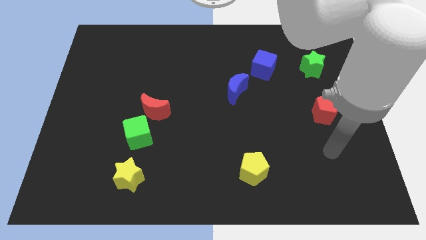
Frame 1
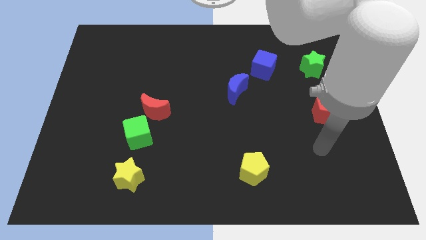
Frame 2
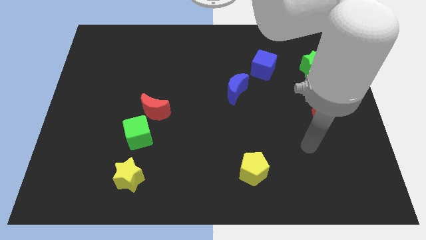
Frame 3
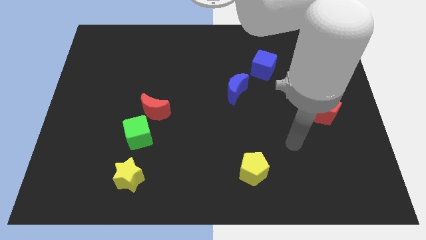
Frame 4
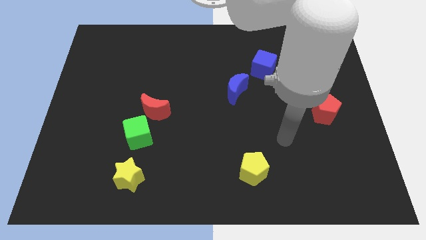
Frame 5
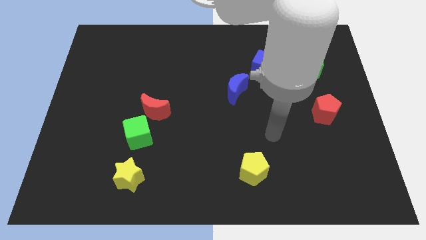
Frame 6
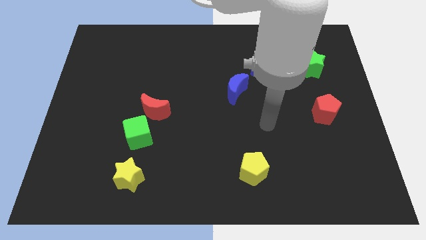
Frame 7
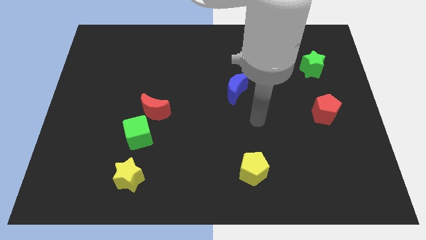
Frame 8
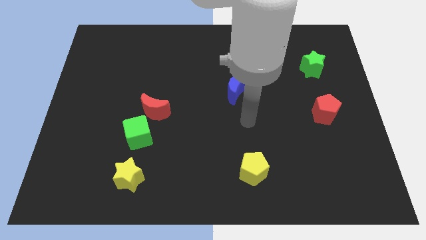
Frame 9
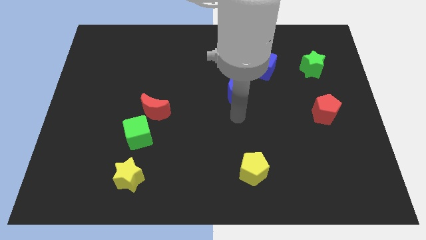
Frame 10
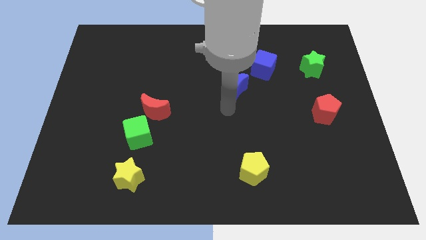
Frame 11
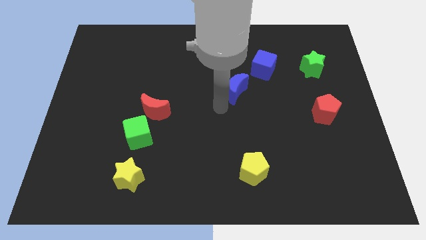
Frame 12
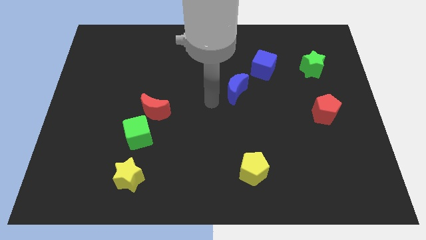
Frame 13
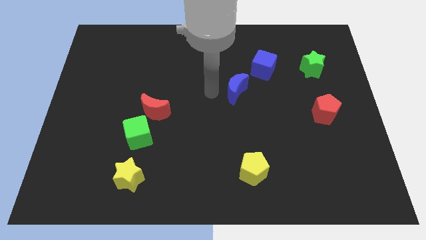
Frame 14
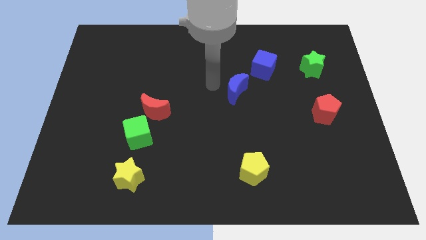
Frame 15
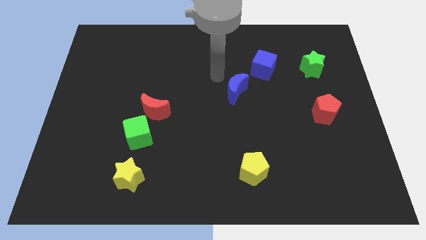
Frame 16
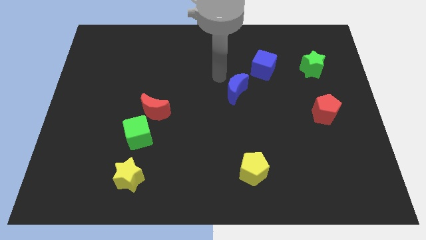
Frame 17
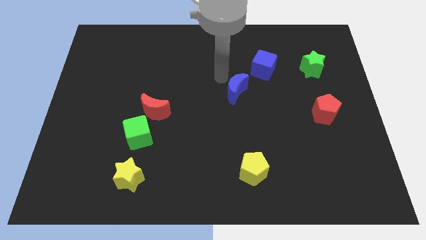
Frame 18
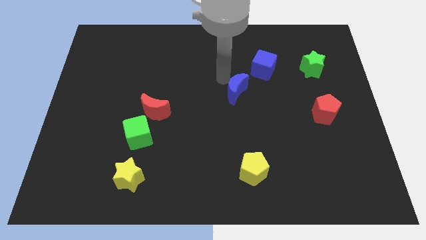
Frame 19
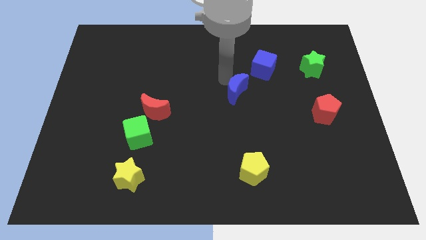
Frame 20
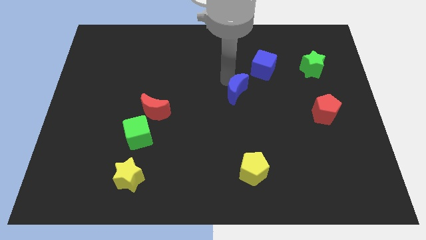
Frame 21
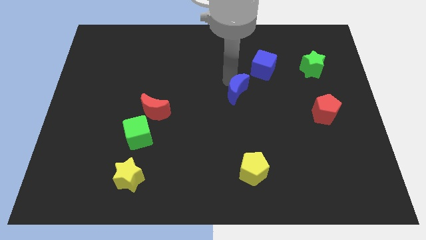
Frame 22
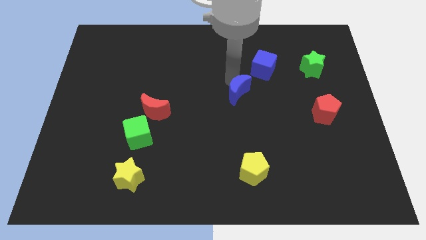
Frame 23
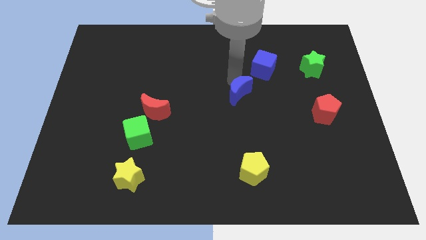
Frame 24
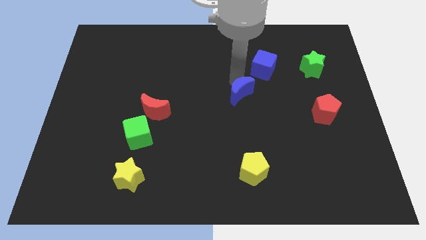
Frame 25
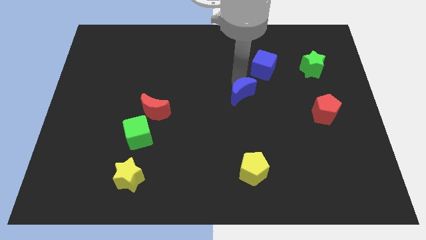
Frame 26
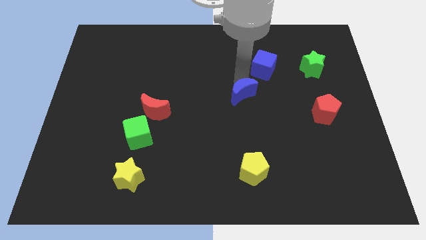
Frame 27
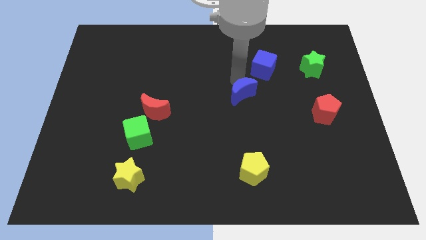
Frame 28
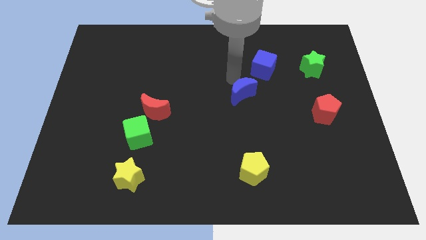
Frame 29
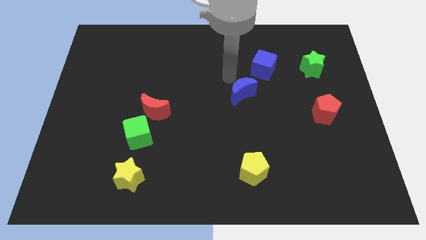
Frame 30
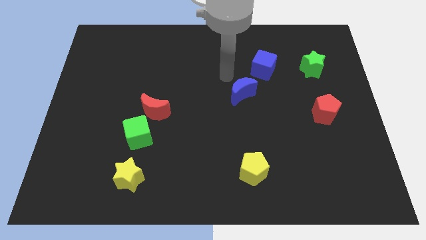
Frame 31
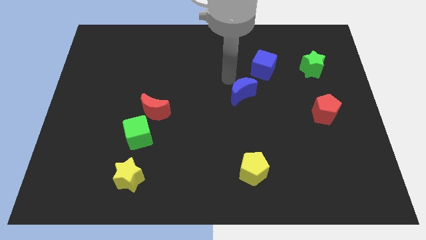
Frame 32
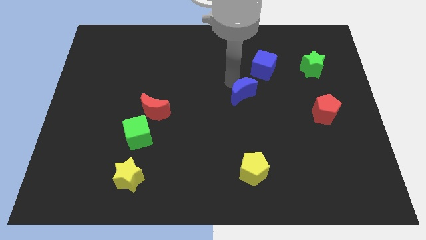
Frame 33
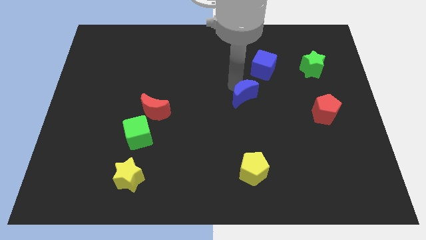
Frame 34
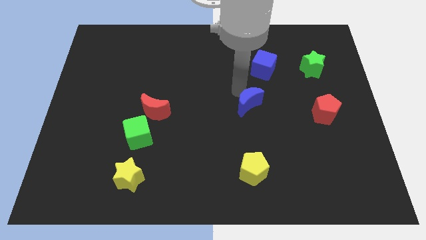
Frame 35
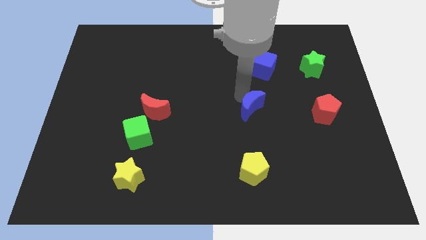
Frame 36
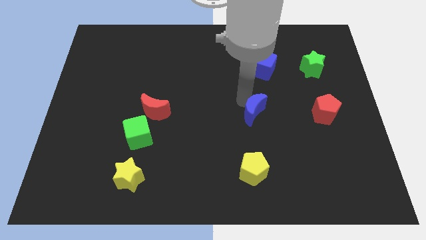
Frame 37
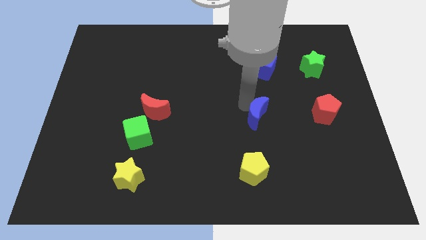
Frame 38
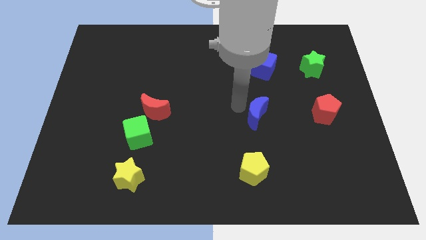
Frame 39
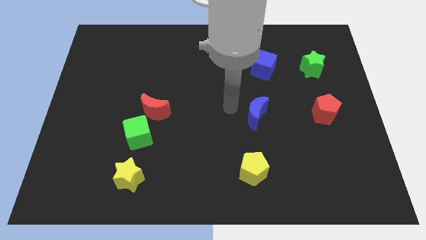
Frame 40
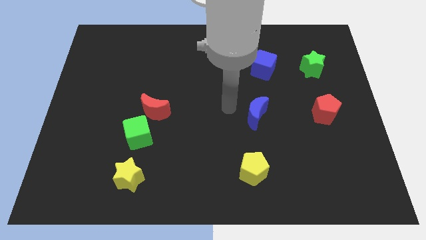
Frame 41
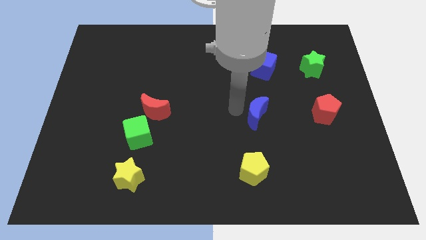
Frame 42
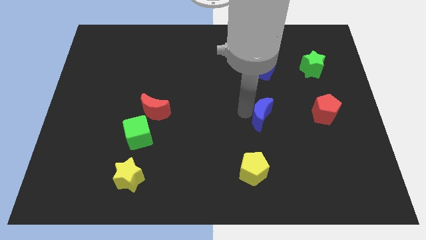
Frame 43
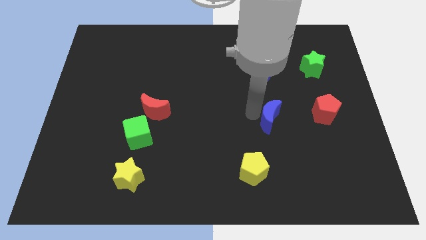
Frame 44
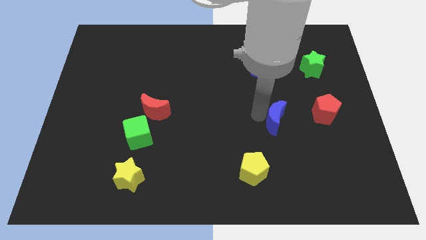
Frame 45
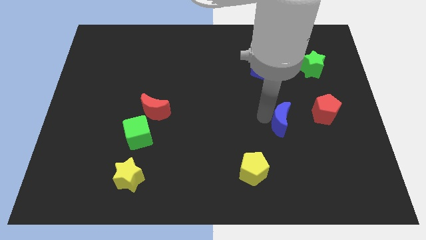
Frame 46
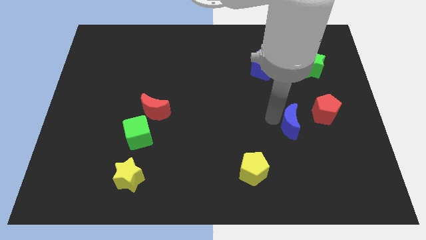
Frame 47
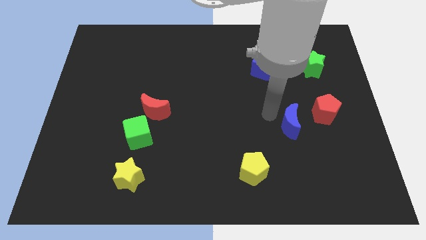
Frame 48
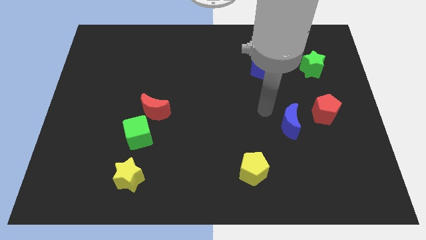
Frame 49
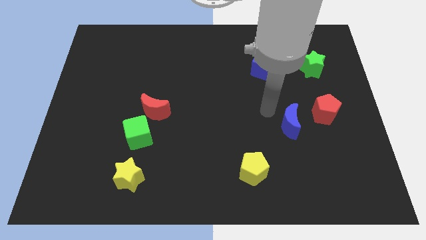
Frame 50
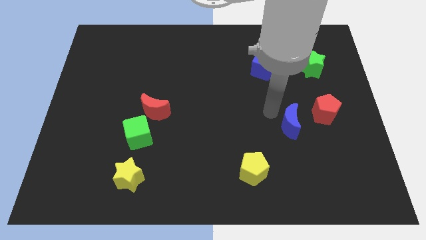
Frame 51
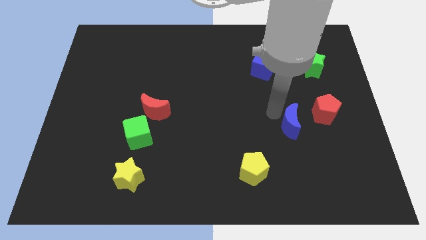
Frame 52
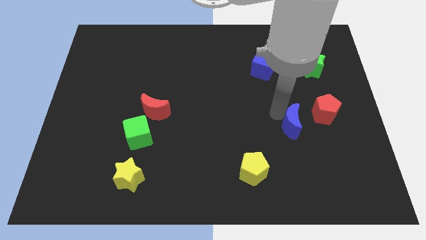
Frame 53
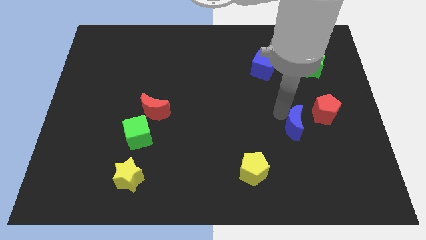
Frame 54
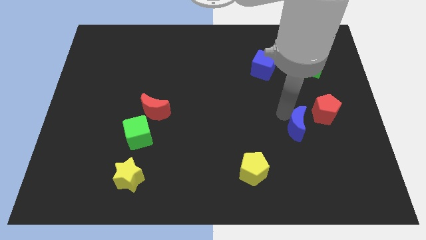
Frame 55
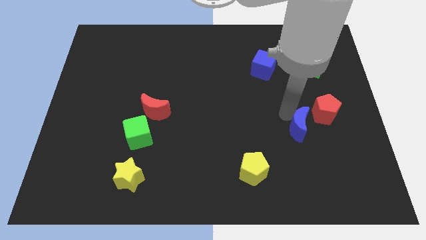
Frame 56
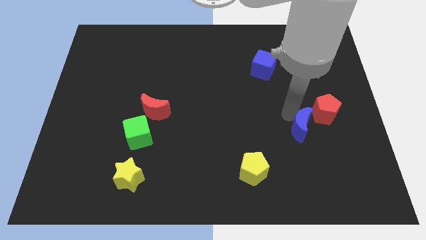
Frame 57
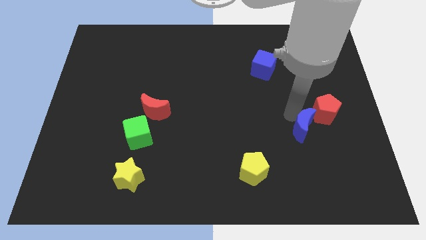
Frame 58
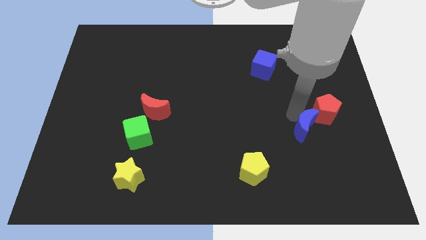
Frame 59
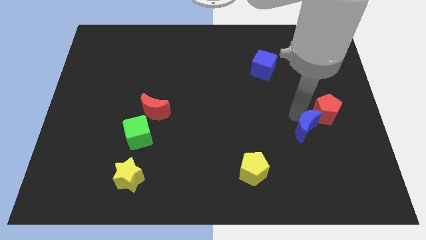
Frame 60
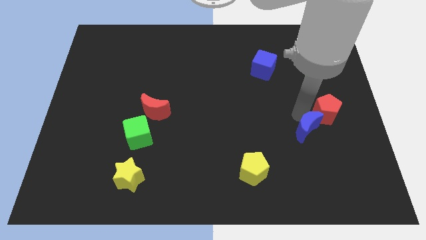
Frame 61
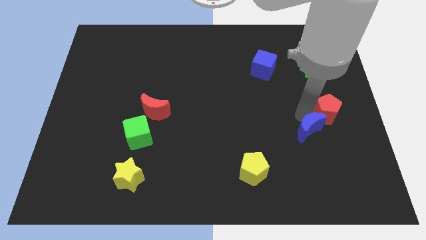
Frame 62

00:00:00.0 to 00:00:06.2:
slide the blue moon to the bottom side of the red pentagon

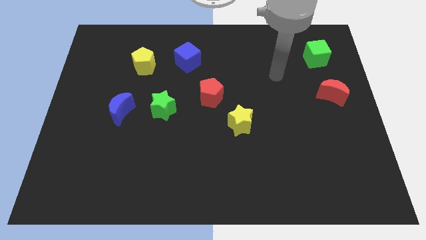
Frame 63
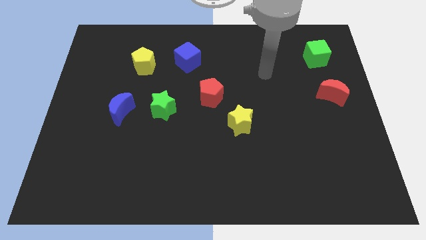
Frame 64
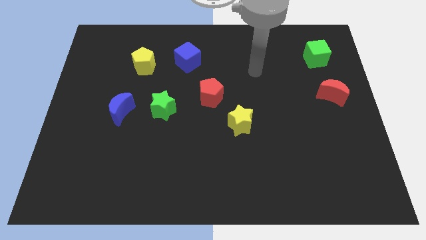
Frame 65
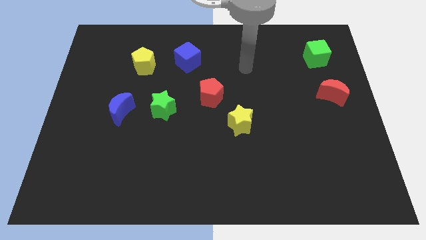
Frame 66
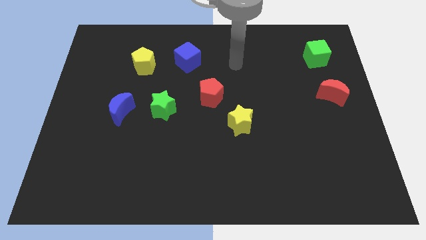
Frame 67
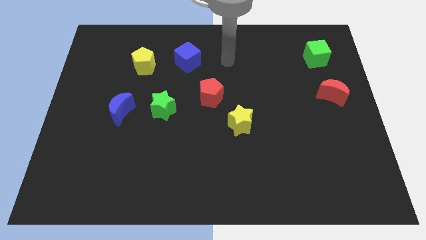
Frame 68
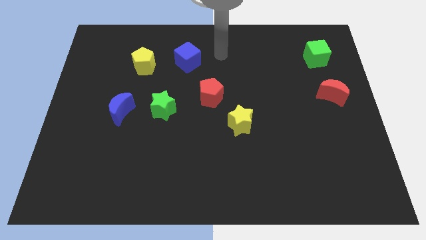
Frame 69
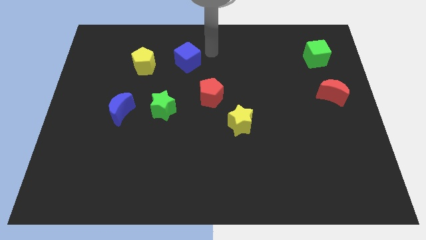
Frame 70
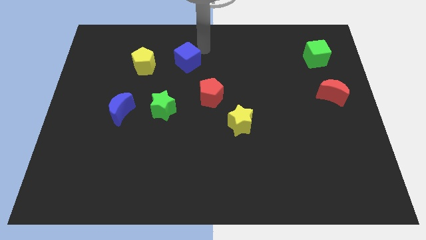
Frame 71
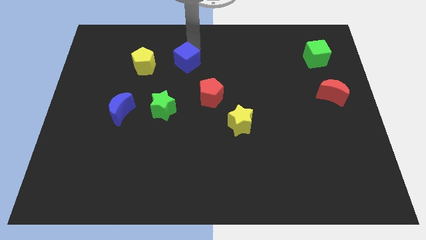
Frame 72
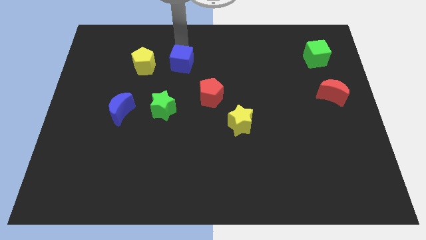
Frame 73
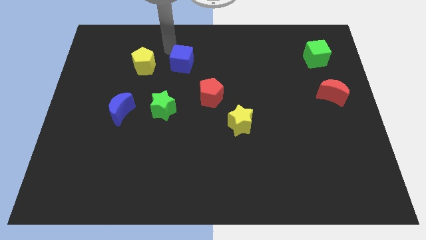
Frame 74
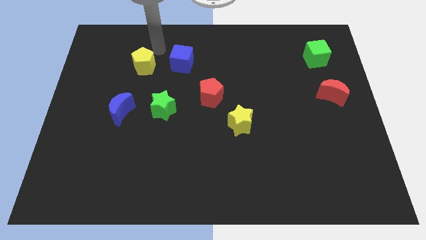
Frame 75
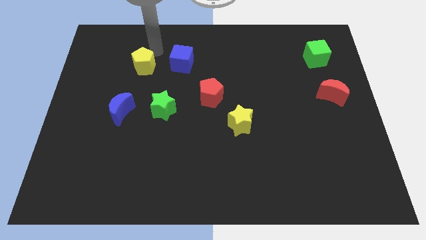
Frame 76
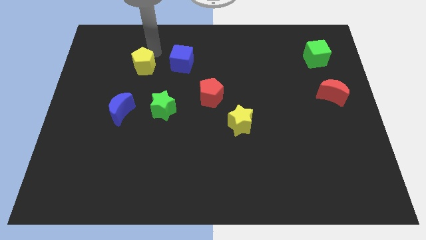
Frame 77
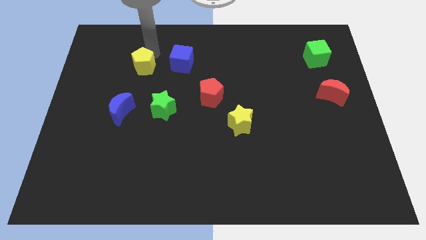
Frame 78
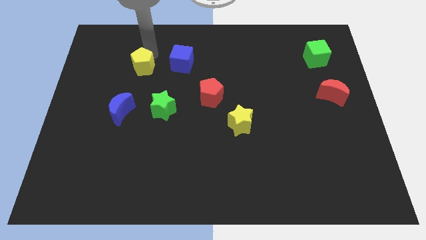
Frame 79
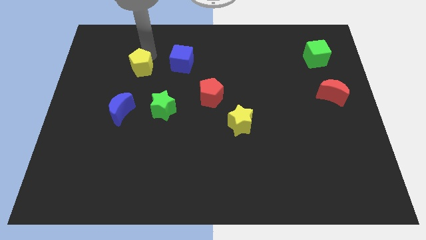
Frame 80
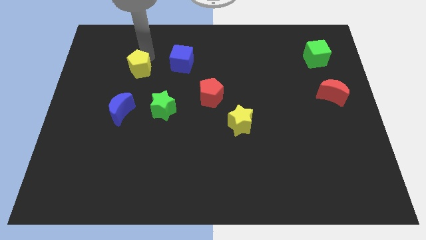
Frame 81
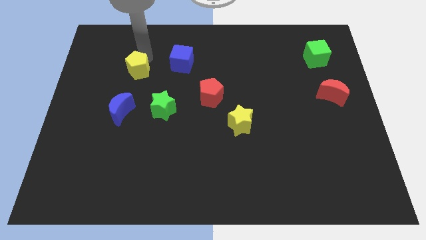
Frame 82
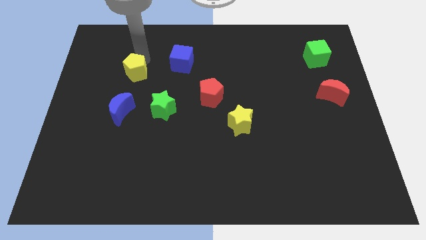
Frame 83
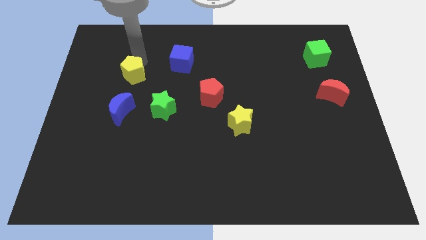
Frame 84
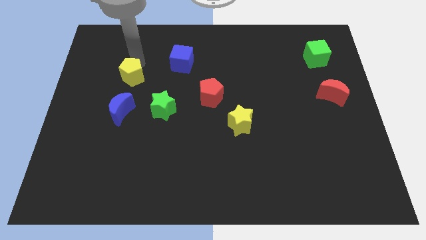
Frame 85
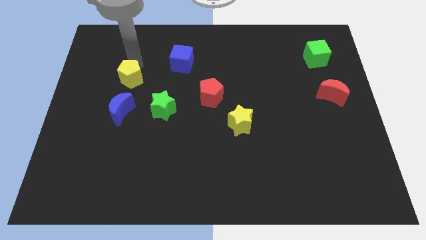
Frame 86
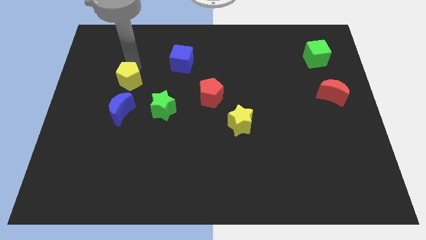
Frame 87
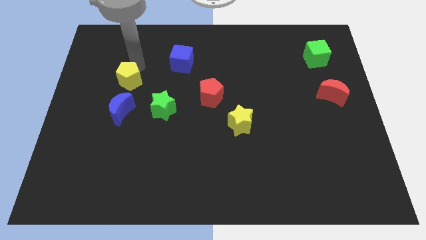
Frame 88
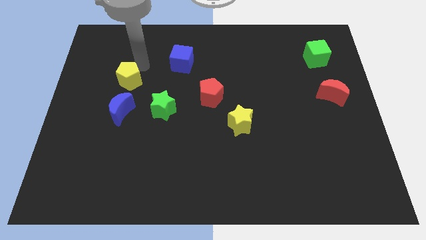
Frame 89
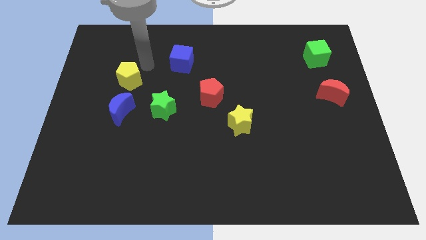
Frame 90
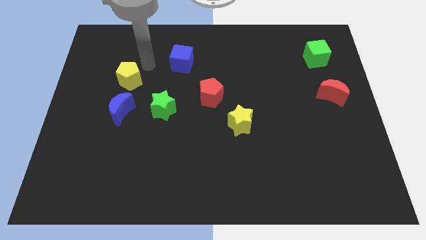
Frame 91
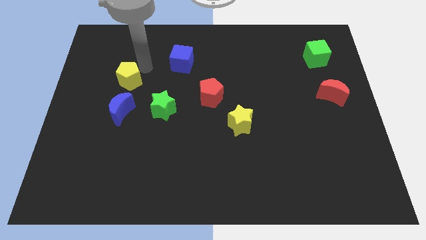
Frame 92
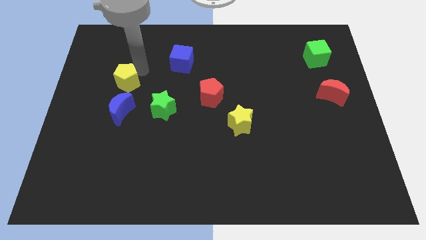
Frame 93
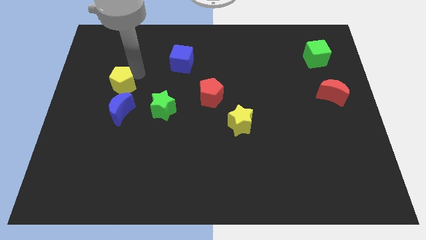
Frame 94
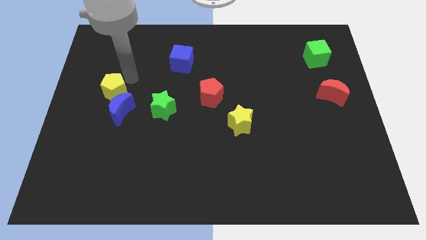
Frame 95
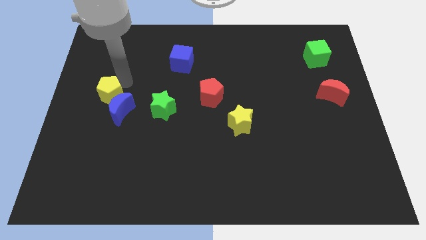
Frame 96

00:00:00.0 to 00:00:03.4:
put the yellow pentagon just left of the green star
